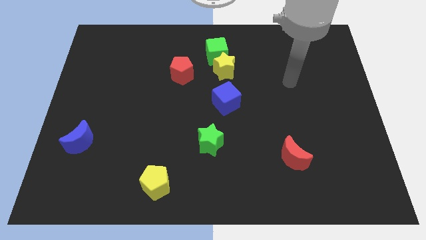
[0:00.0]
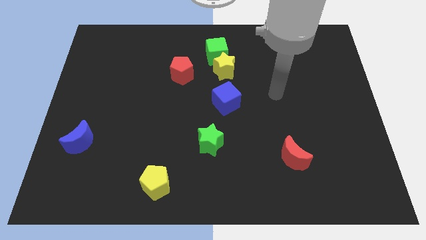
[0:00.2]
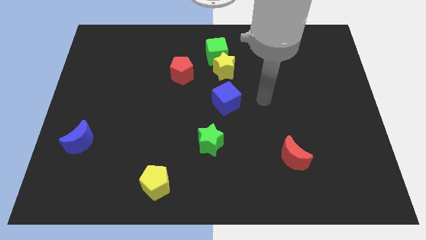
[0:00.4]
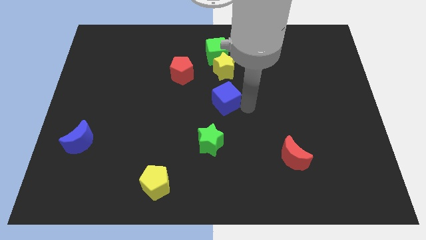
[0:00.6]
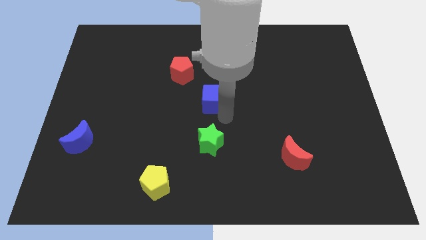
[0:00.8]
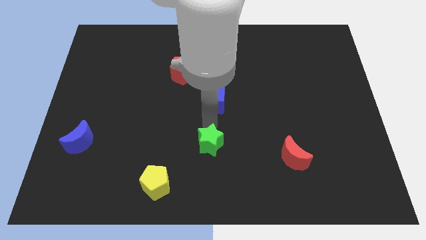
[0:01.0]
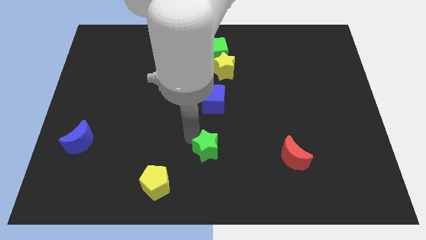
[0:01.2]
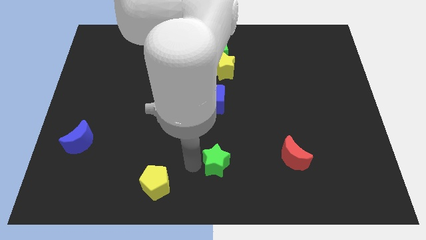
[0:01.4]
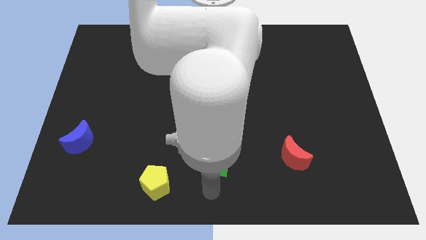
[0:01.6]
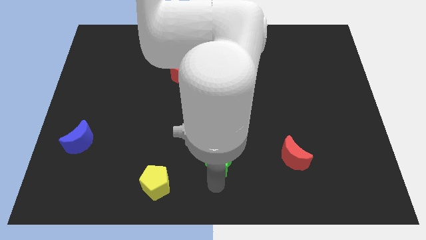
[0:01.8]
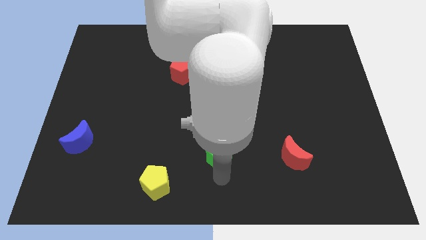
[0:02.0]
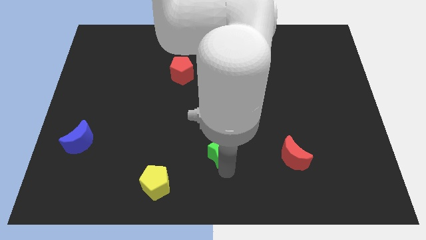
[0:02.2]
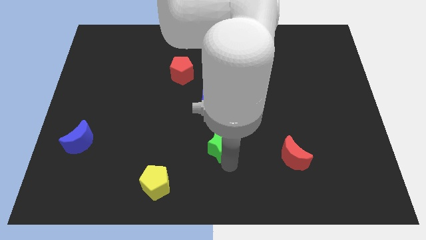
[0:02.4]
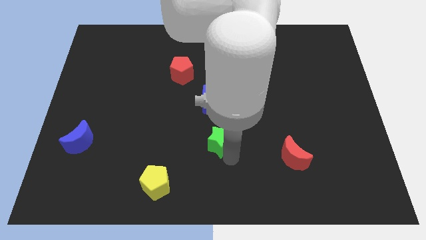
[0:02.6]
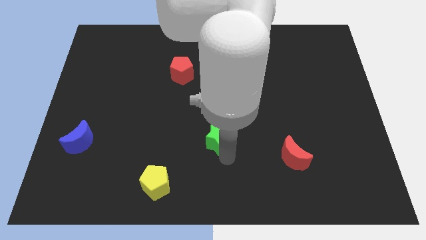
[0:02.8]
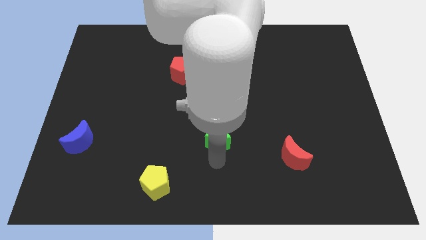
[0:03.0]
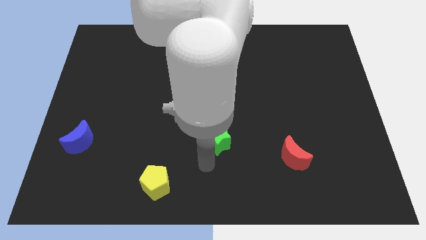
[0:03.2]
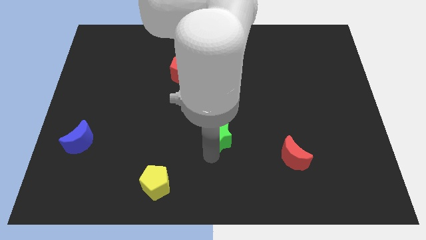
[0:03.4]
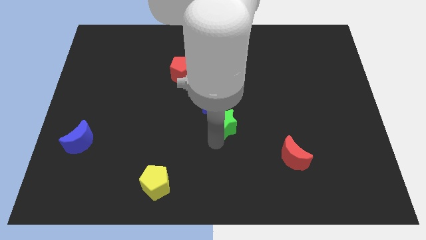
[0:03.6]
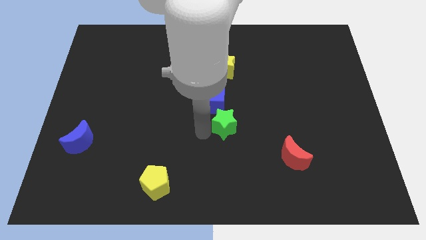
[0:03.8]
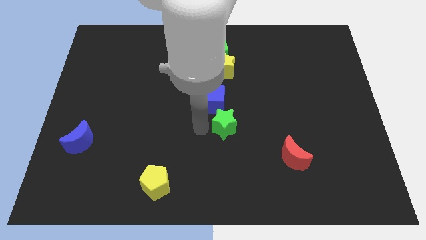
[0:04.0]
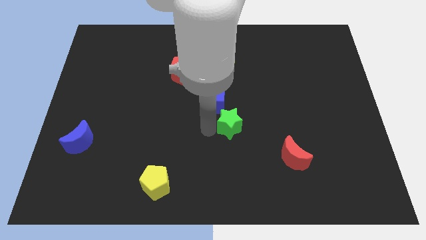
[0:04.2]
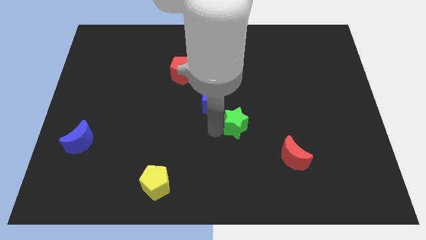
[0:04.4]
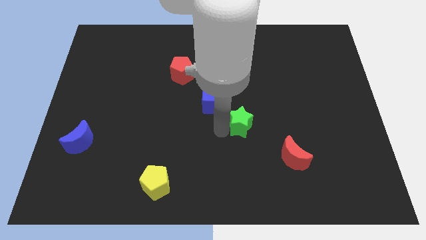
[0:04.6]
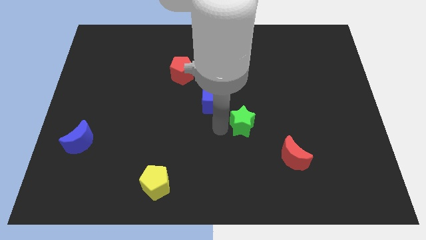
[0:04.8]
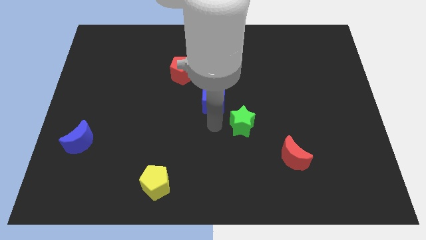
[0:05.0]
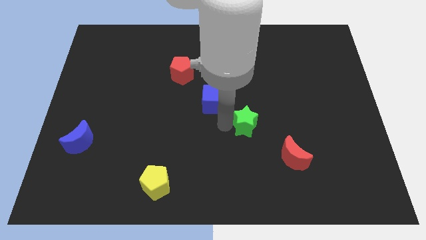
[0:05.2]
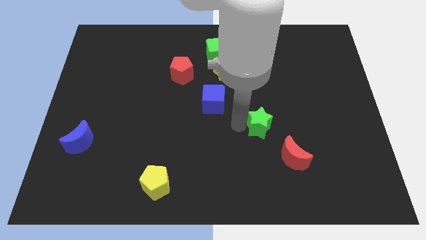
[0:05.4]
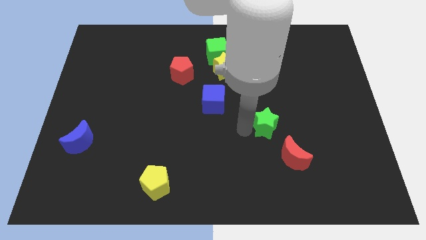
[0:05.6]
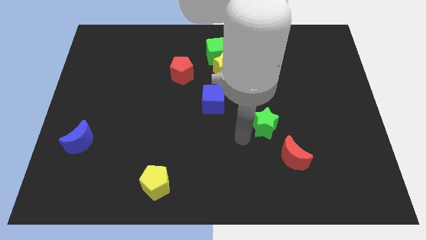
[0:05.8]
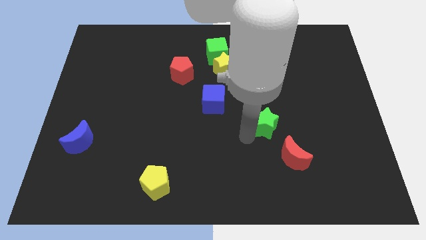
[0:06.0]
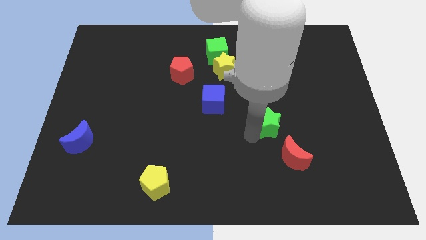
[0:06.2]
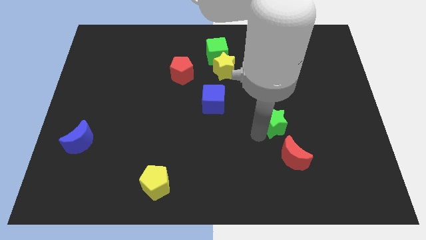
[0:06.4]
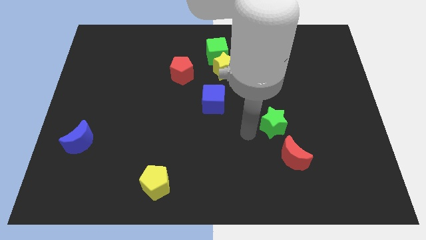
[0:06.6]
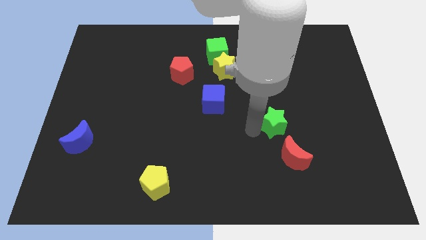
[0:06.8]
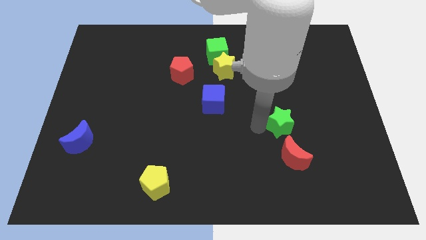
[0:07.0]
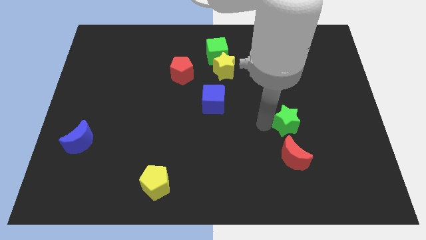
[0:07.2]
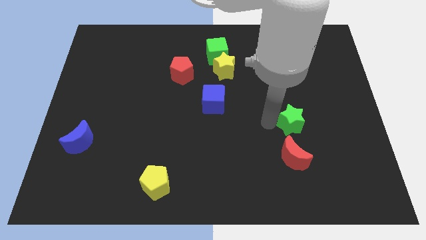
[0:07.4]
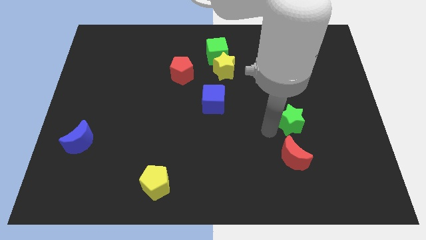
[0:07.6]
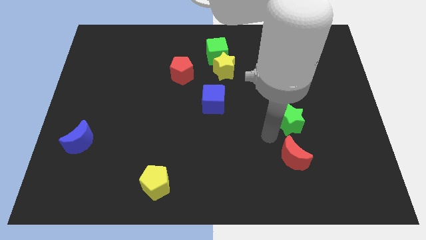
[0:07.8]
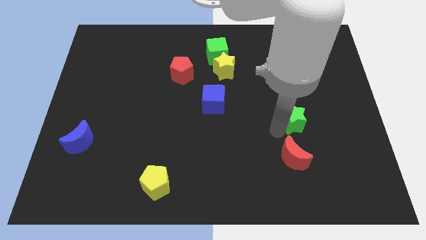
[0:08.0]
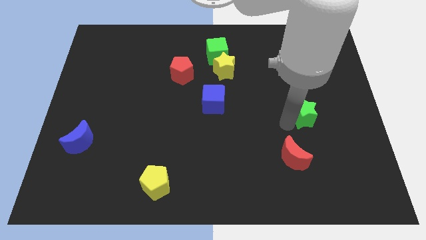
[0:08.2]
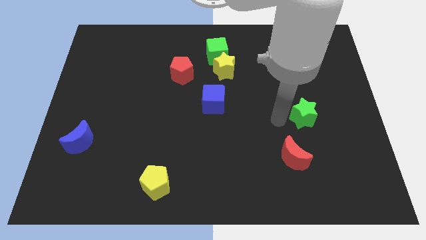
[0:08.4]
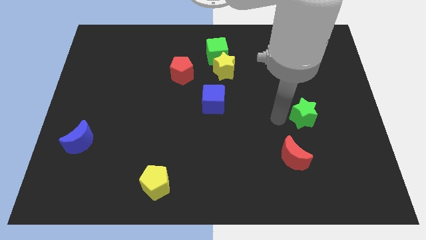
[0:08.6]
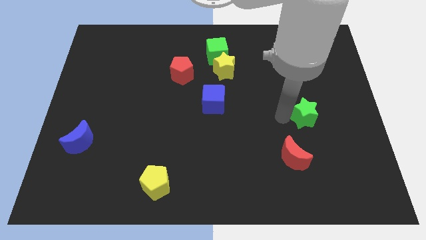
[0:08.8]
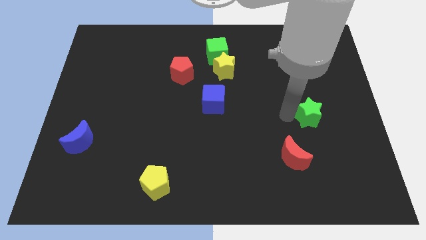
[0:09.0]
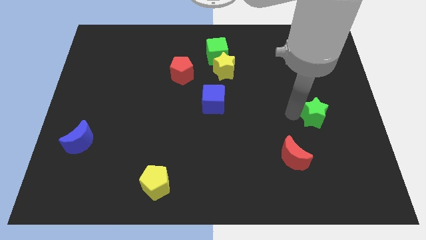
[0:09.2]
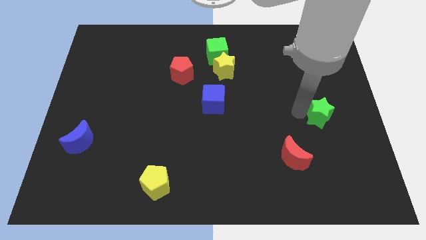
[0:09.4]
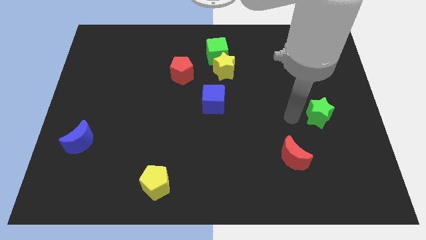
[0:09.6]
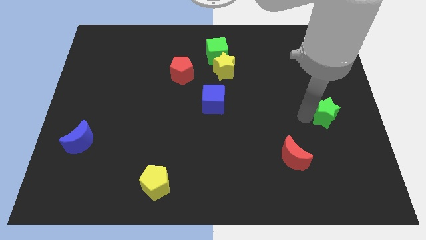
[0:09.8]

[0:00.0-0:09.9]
put the green star to the right side of the board

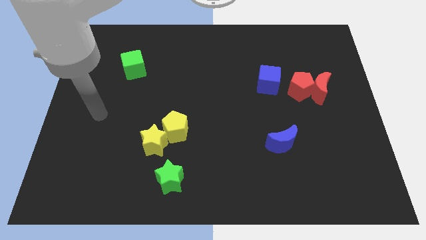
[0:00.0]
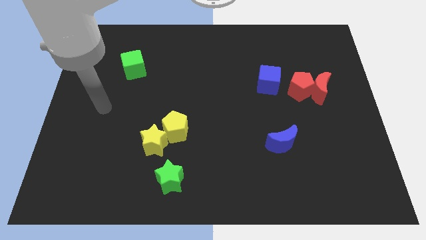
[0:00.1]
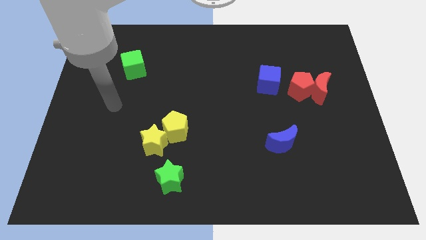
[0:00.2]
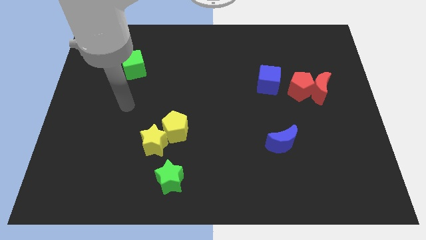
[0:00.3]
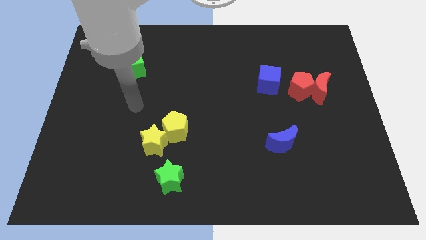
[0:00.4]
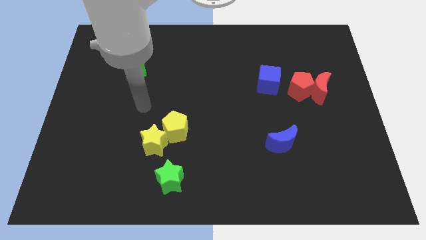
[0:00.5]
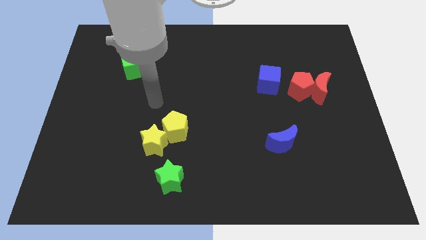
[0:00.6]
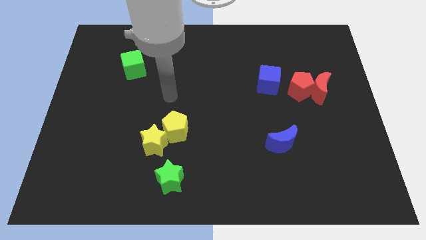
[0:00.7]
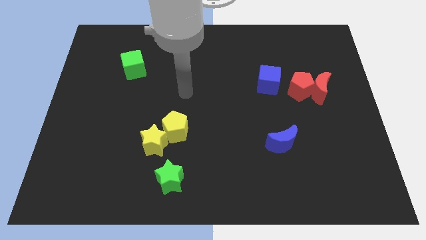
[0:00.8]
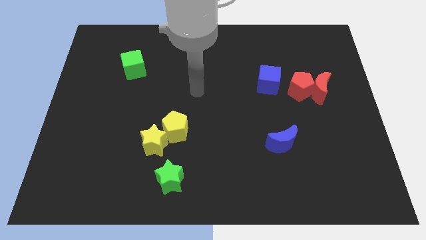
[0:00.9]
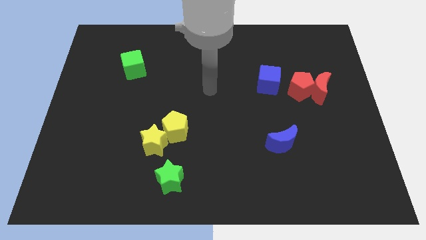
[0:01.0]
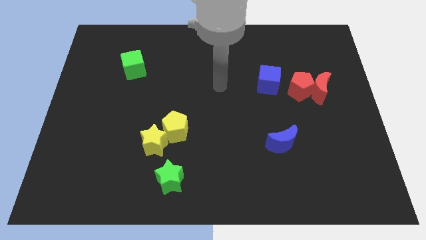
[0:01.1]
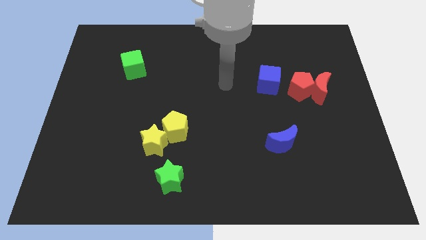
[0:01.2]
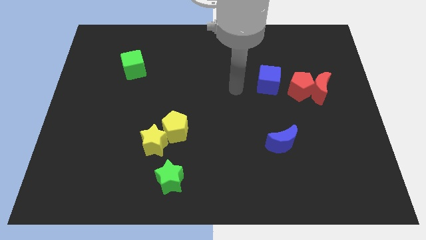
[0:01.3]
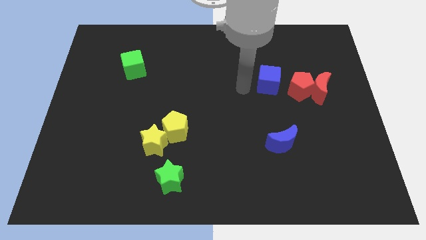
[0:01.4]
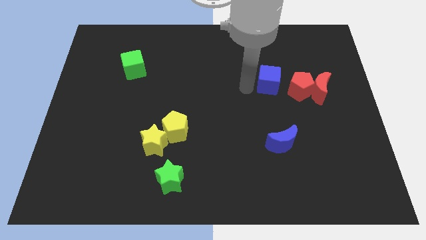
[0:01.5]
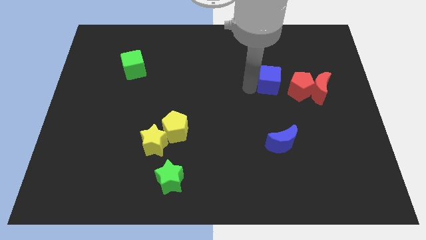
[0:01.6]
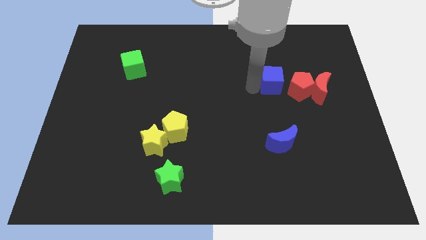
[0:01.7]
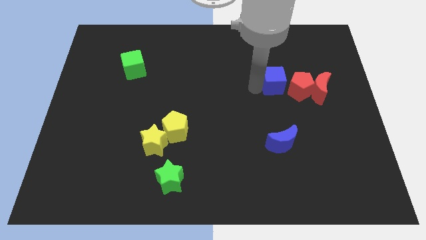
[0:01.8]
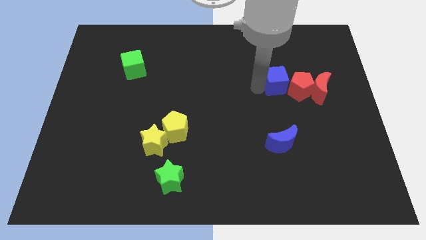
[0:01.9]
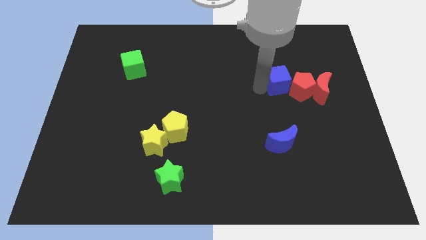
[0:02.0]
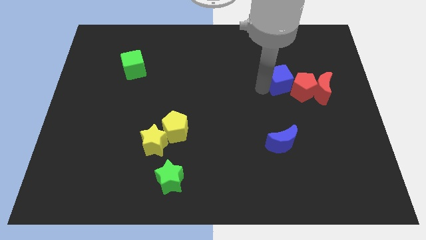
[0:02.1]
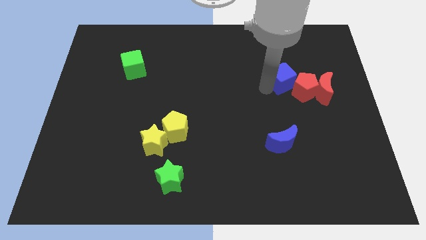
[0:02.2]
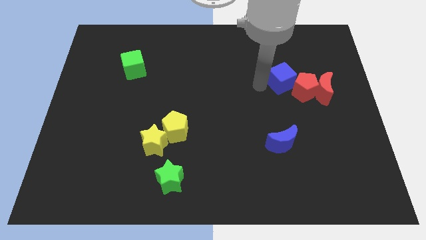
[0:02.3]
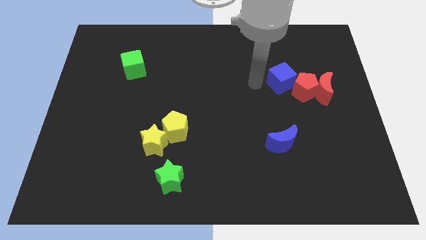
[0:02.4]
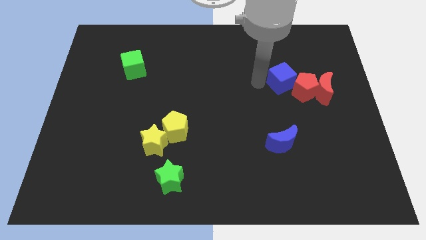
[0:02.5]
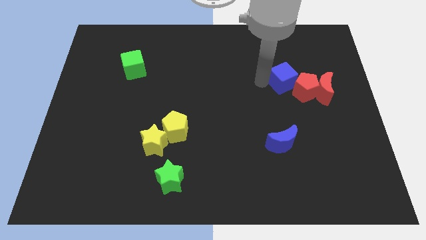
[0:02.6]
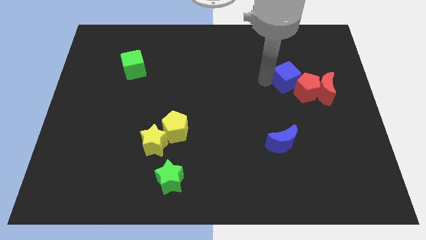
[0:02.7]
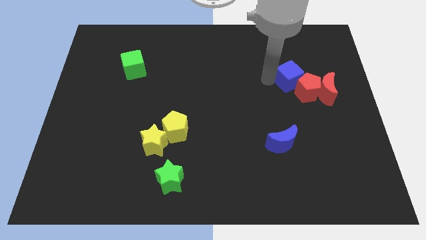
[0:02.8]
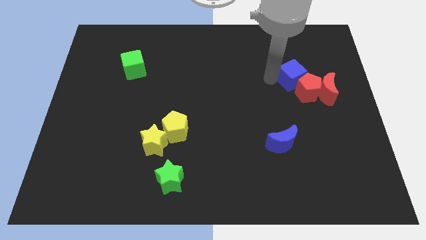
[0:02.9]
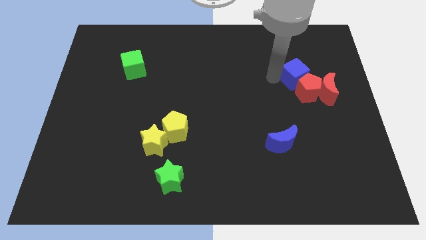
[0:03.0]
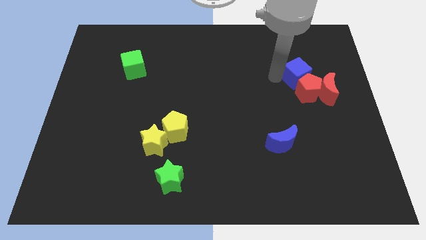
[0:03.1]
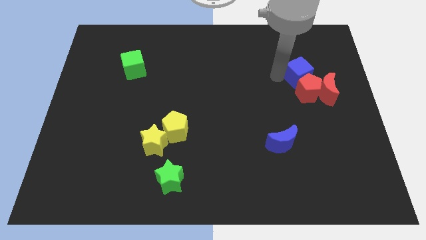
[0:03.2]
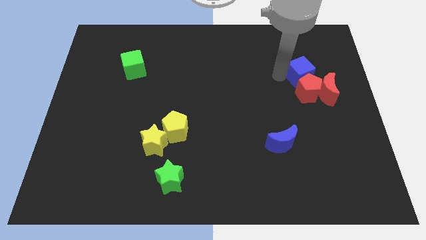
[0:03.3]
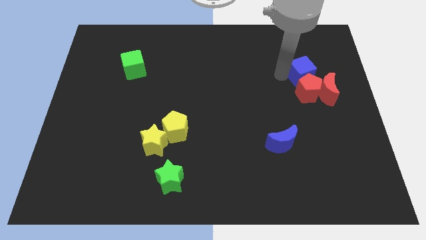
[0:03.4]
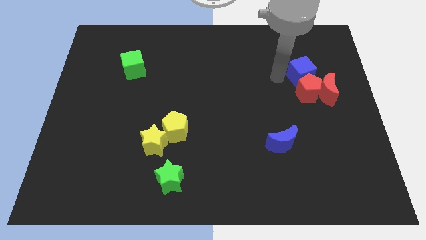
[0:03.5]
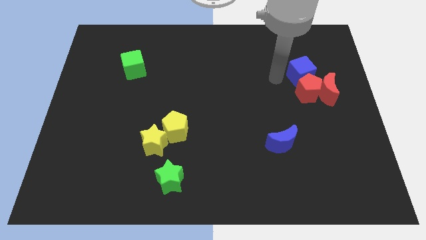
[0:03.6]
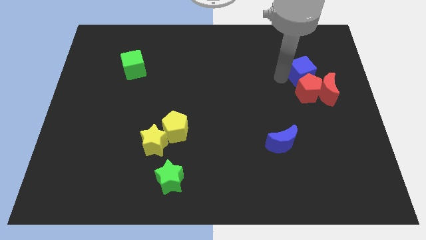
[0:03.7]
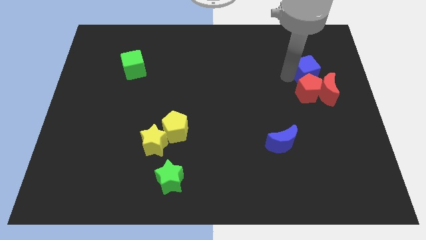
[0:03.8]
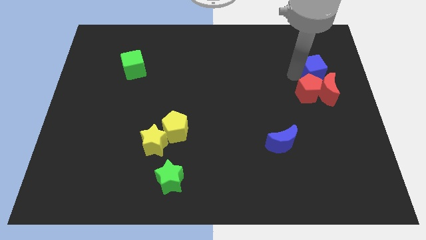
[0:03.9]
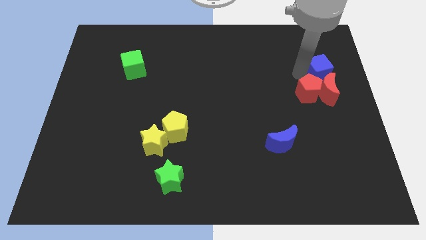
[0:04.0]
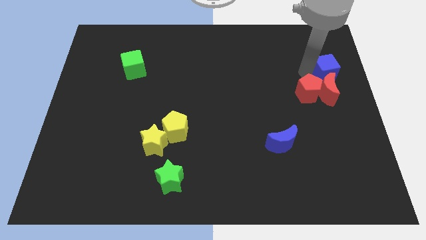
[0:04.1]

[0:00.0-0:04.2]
put the blue cube to the right side
